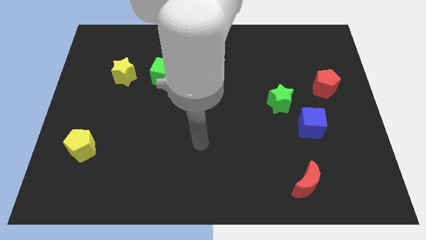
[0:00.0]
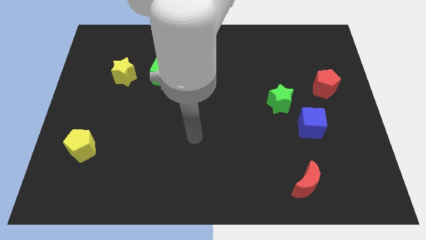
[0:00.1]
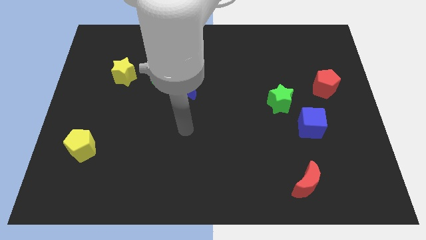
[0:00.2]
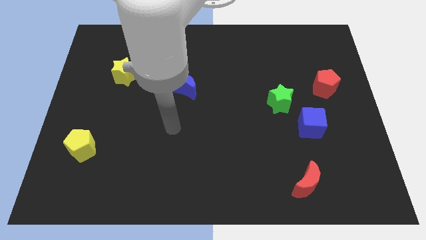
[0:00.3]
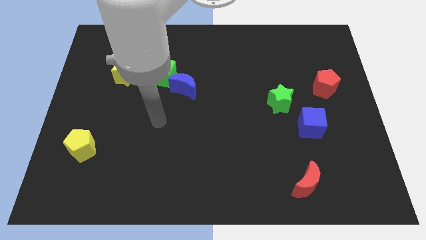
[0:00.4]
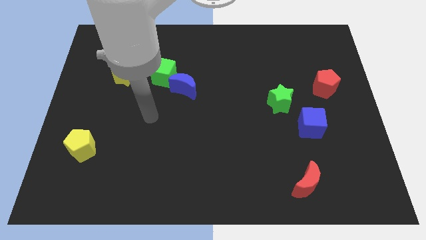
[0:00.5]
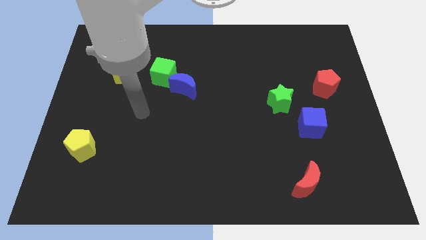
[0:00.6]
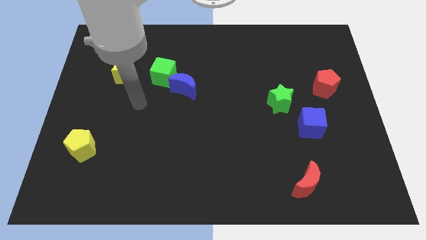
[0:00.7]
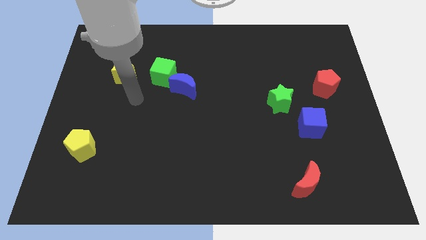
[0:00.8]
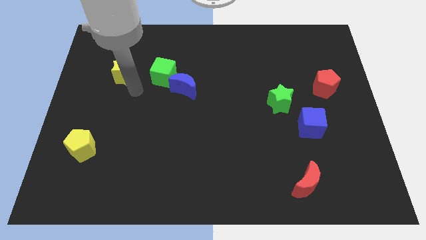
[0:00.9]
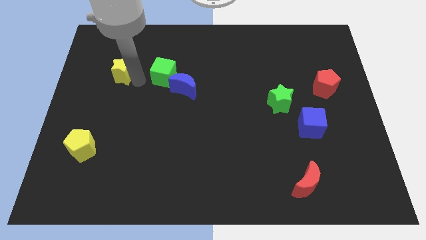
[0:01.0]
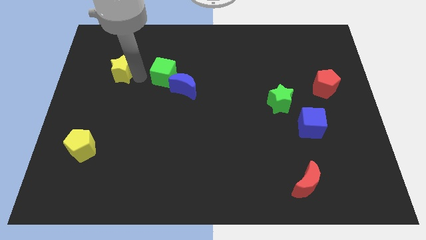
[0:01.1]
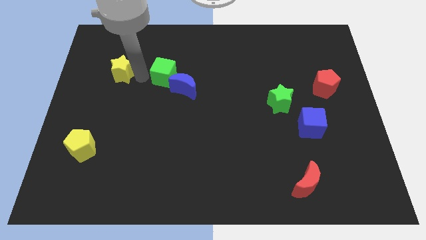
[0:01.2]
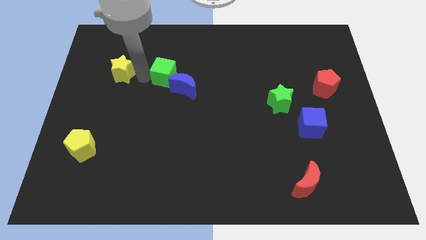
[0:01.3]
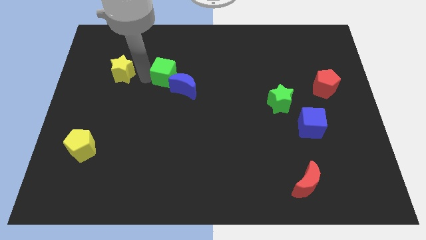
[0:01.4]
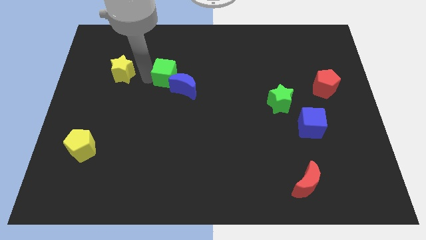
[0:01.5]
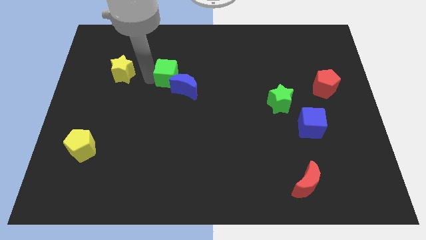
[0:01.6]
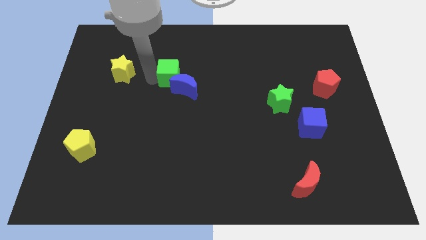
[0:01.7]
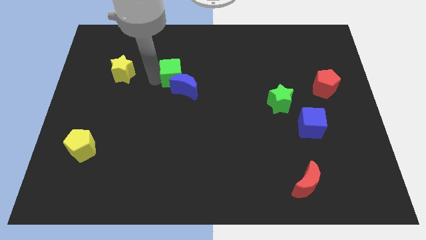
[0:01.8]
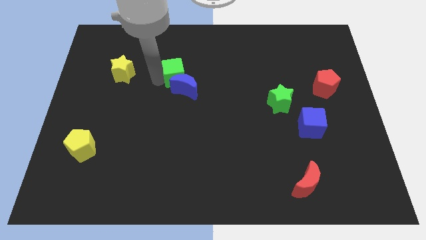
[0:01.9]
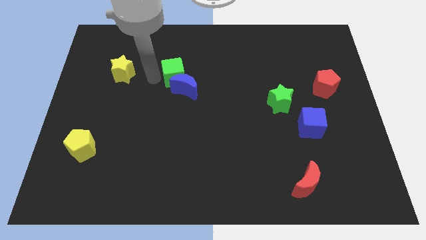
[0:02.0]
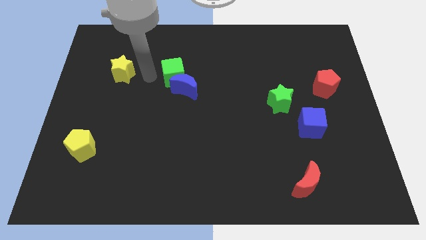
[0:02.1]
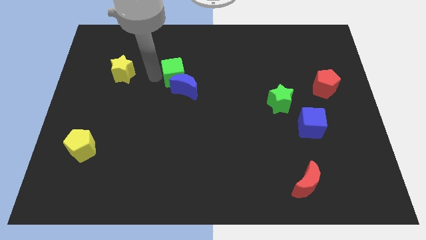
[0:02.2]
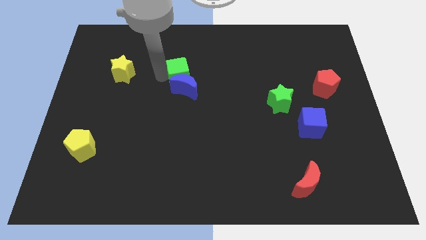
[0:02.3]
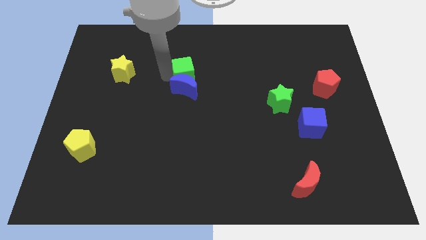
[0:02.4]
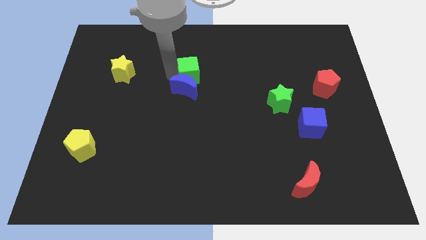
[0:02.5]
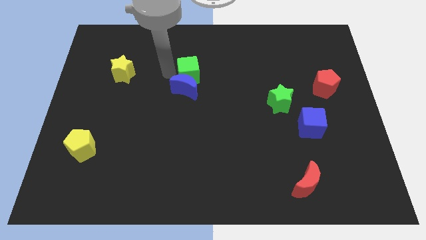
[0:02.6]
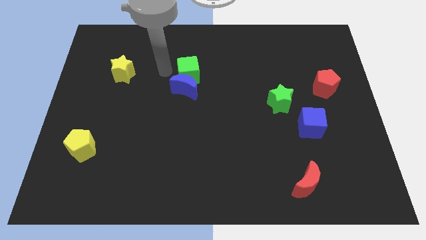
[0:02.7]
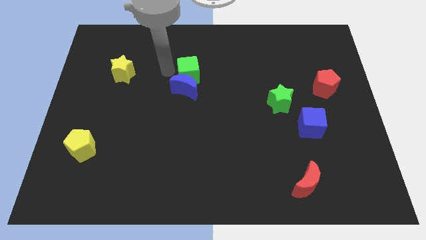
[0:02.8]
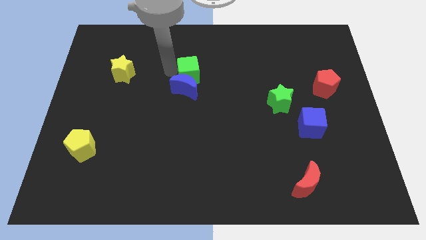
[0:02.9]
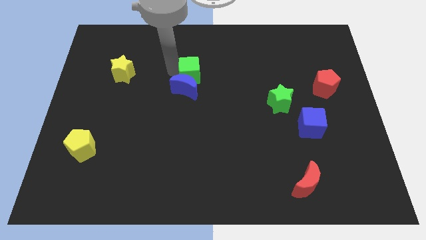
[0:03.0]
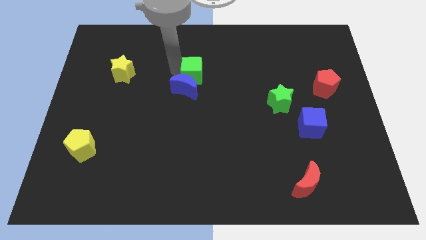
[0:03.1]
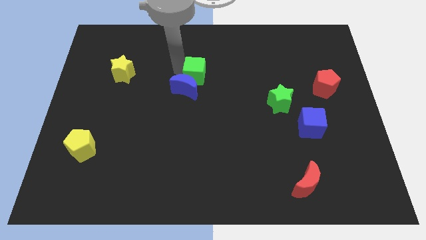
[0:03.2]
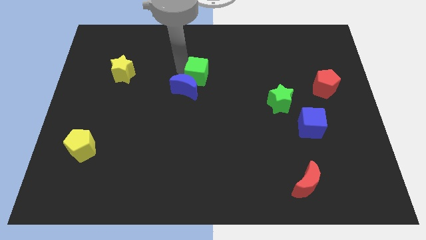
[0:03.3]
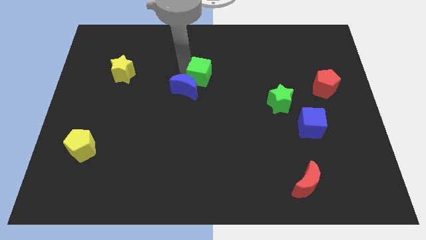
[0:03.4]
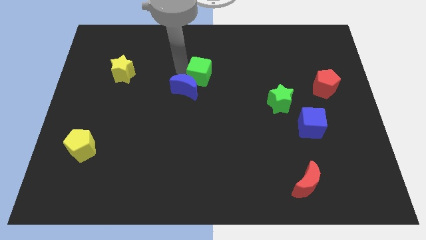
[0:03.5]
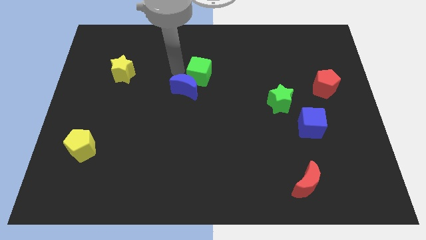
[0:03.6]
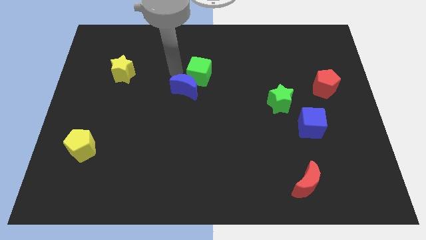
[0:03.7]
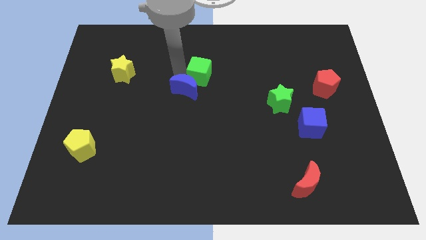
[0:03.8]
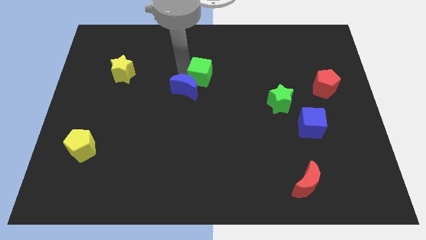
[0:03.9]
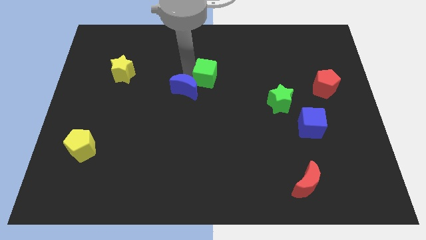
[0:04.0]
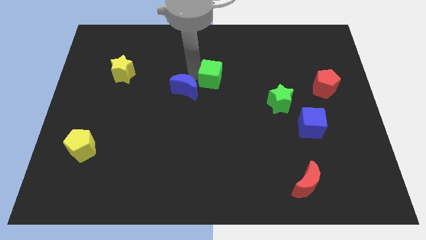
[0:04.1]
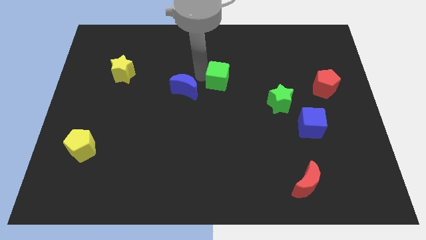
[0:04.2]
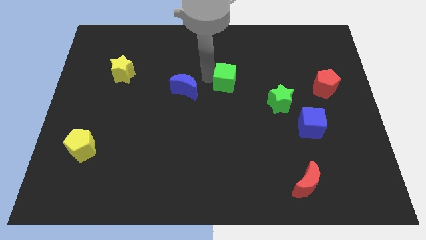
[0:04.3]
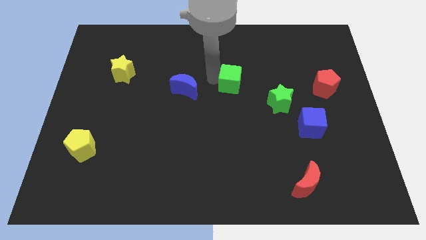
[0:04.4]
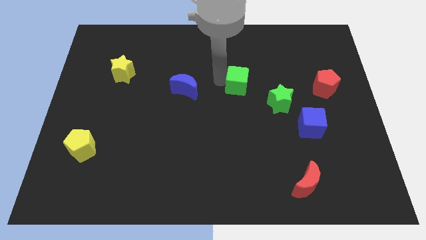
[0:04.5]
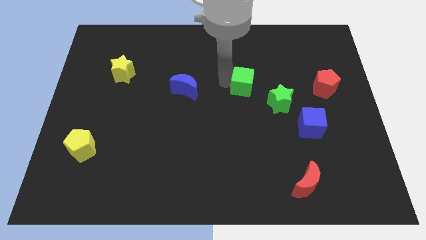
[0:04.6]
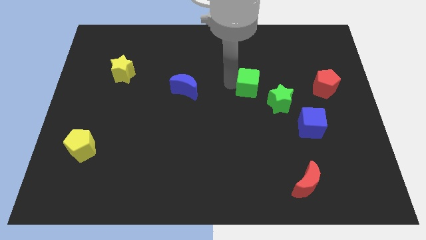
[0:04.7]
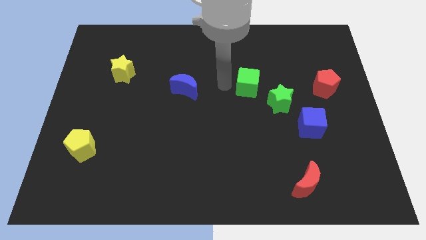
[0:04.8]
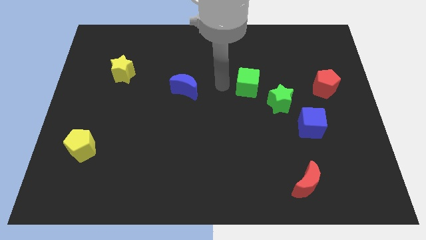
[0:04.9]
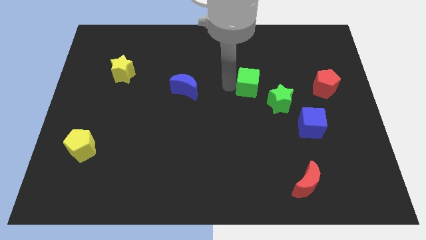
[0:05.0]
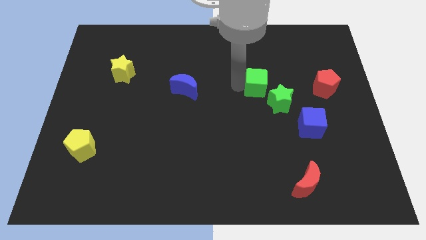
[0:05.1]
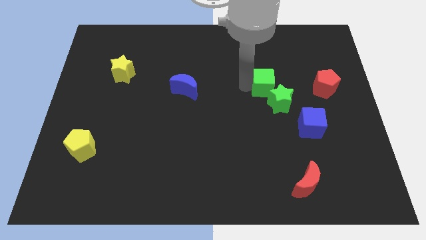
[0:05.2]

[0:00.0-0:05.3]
put the green cube to the left of the red pentagon

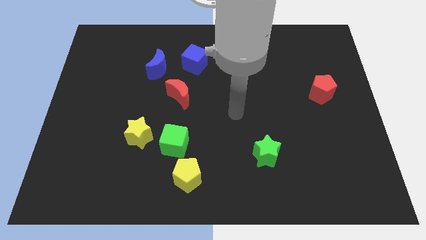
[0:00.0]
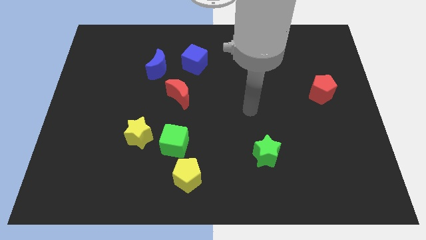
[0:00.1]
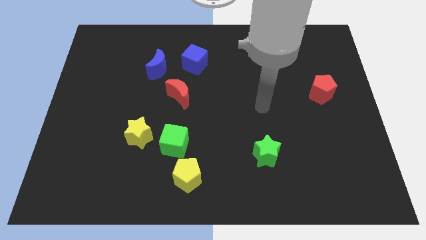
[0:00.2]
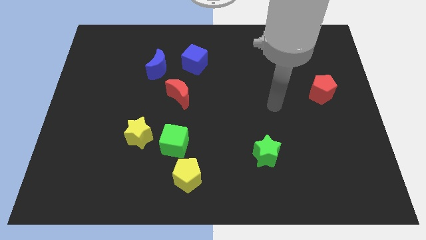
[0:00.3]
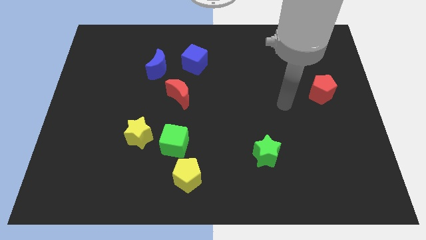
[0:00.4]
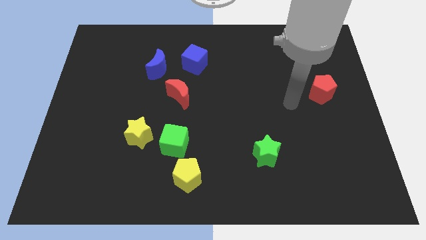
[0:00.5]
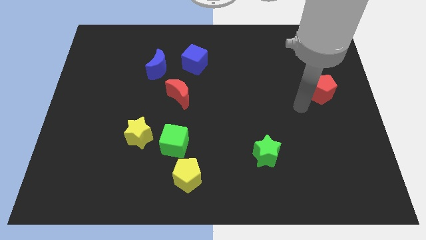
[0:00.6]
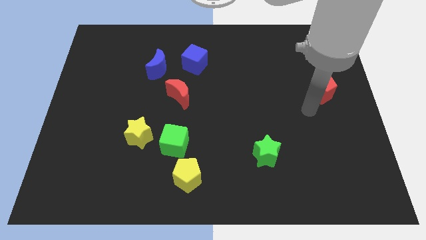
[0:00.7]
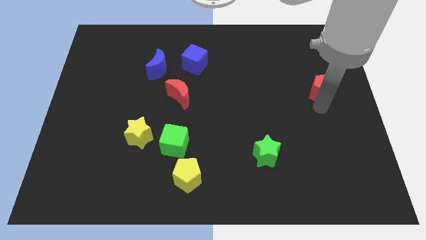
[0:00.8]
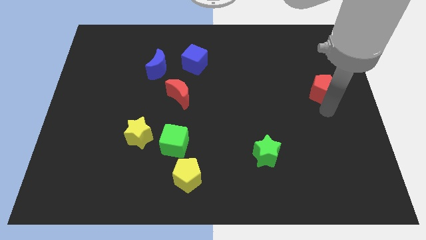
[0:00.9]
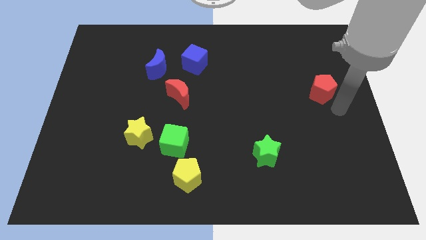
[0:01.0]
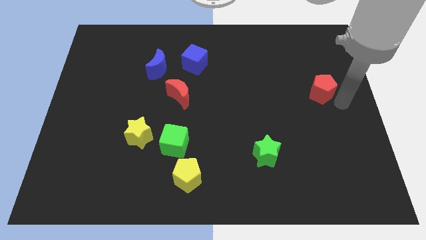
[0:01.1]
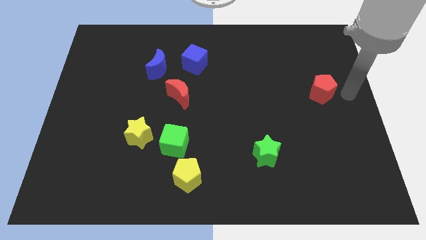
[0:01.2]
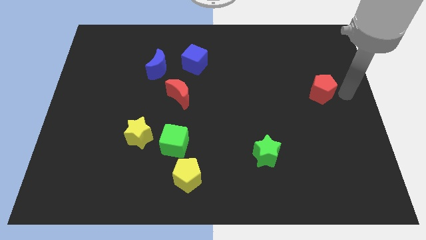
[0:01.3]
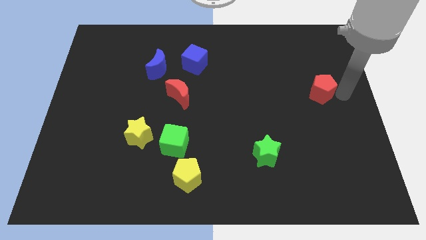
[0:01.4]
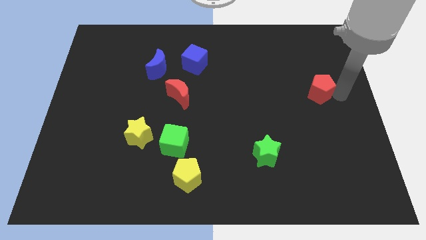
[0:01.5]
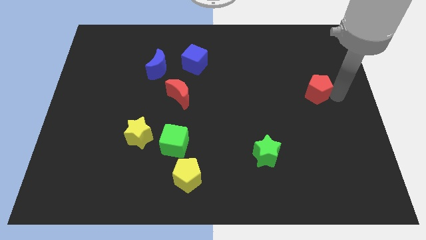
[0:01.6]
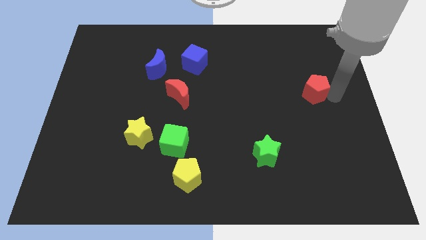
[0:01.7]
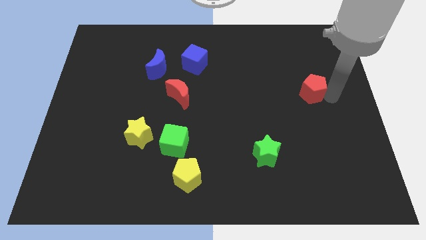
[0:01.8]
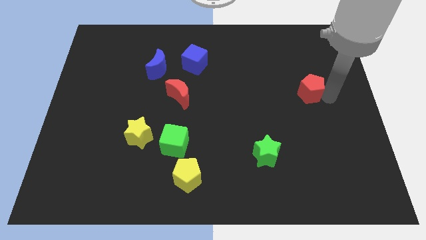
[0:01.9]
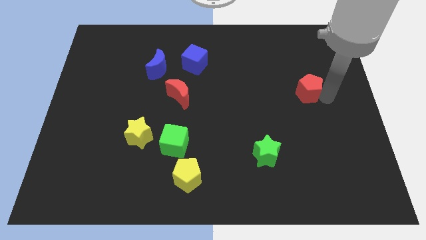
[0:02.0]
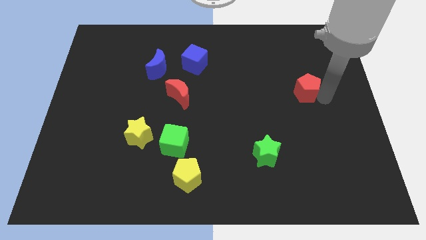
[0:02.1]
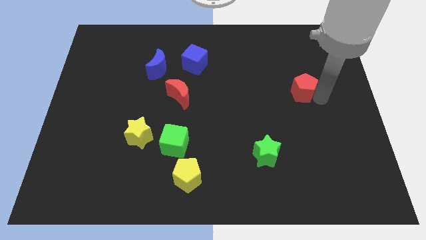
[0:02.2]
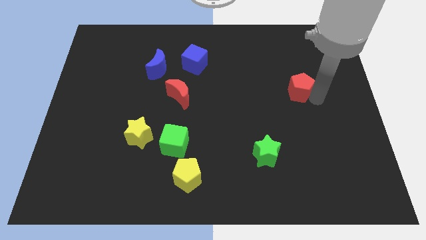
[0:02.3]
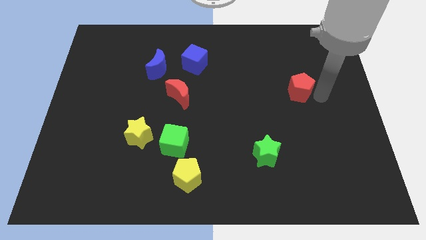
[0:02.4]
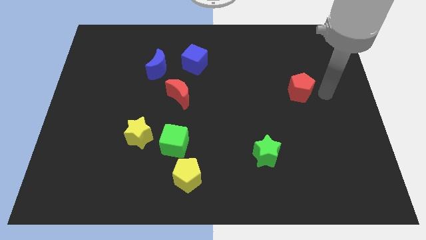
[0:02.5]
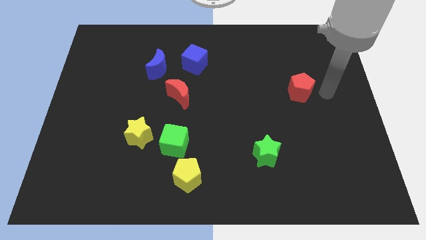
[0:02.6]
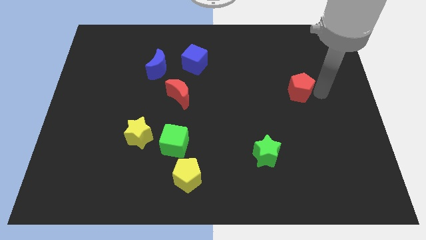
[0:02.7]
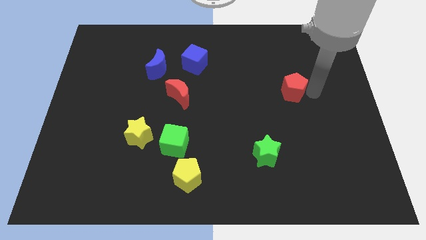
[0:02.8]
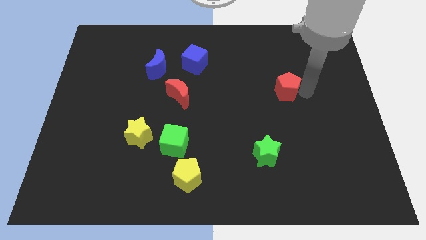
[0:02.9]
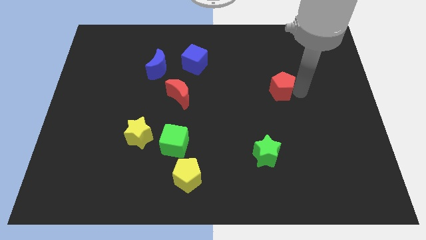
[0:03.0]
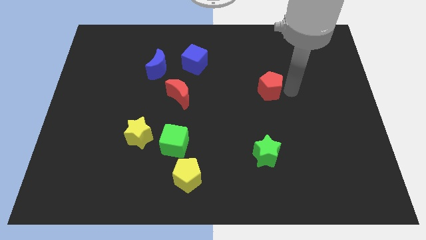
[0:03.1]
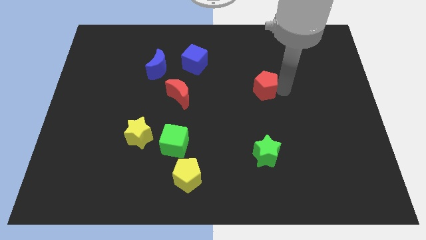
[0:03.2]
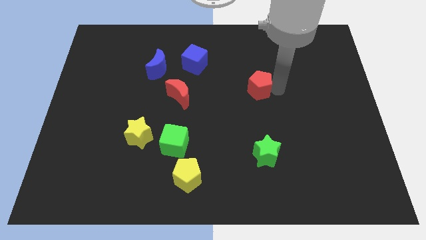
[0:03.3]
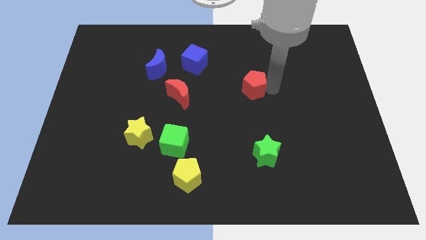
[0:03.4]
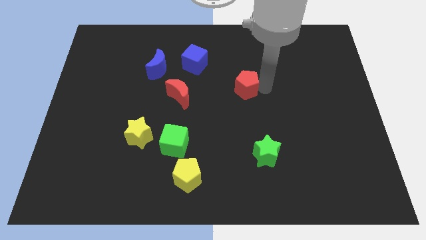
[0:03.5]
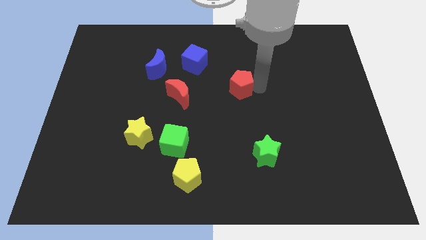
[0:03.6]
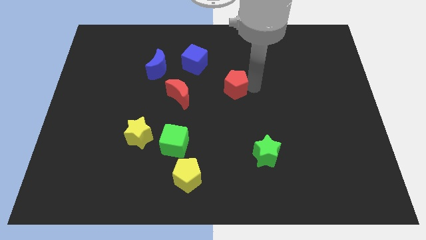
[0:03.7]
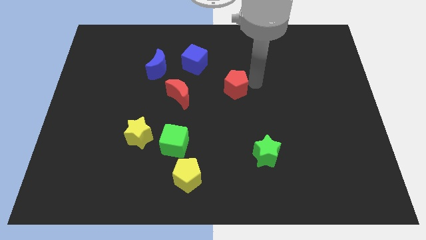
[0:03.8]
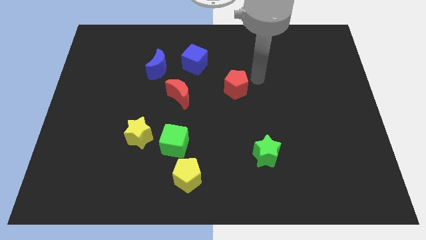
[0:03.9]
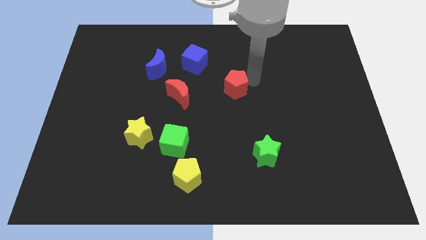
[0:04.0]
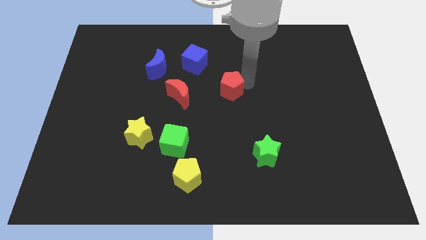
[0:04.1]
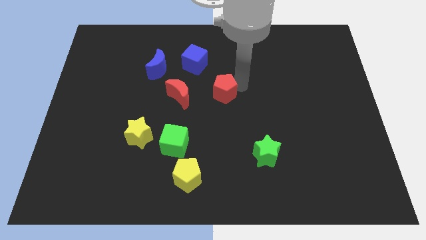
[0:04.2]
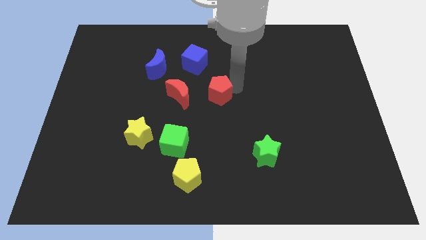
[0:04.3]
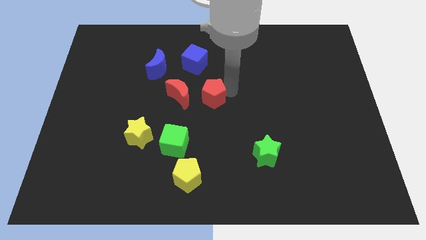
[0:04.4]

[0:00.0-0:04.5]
move the red pentagon to the bottom side of the blue cube
